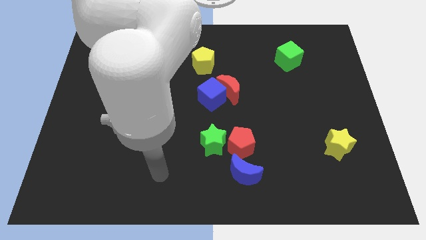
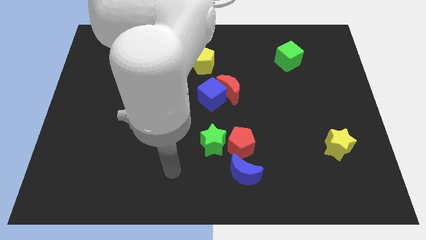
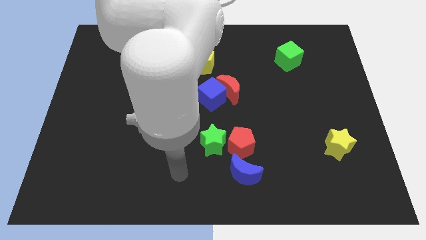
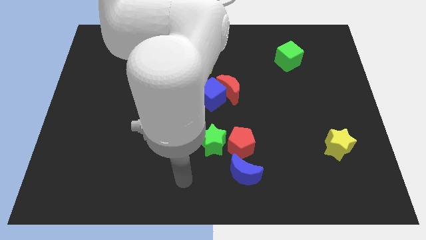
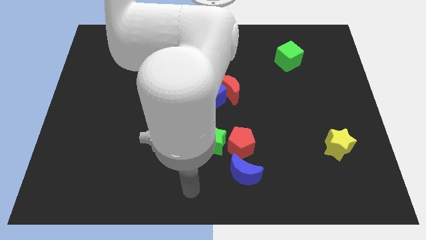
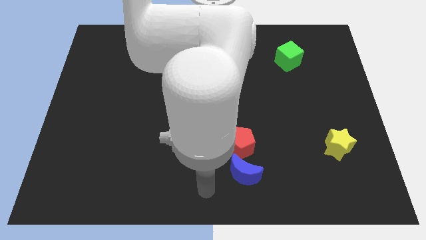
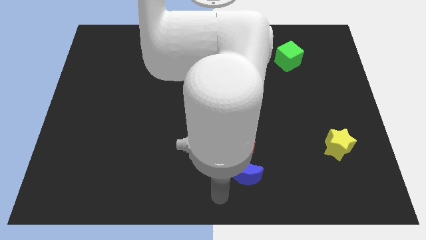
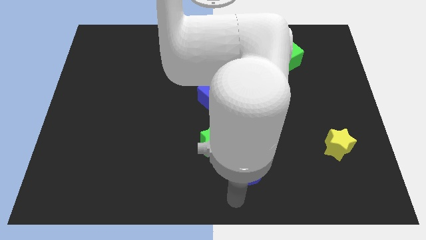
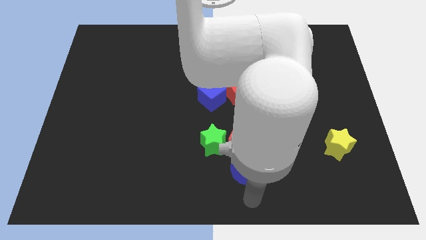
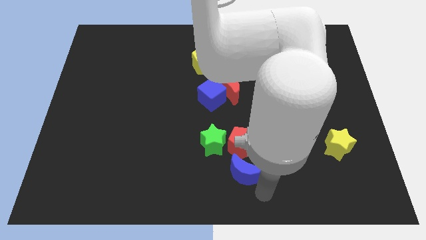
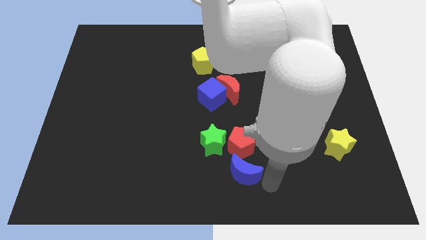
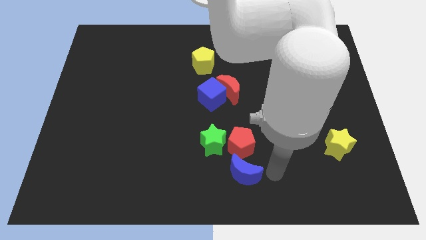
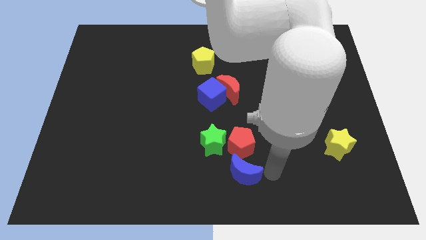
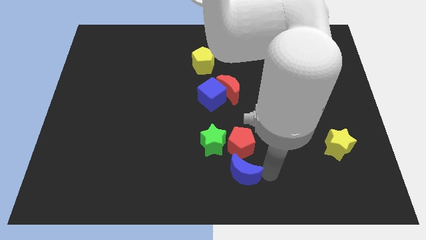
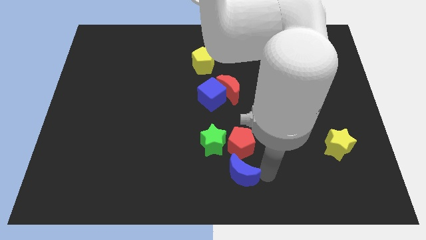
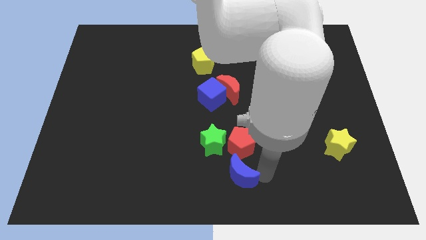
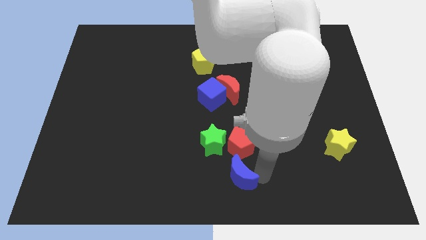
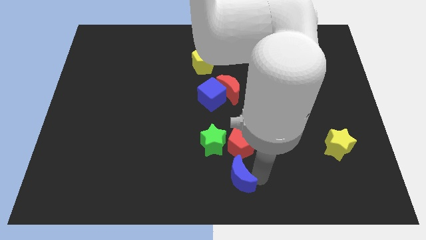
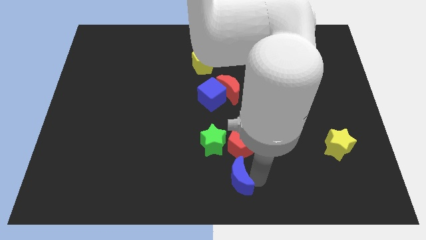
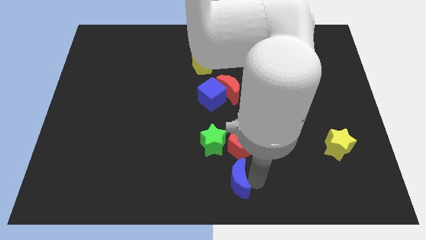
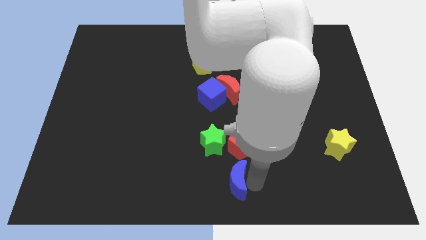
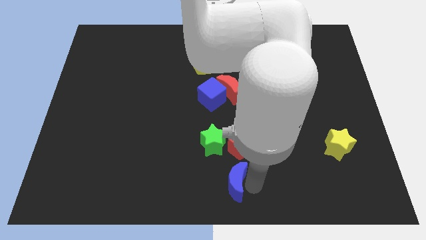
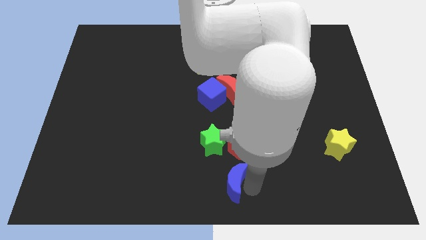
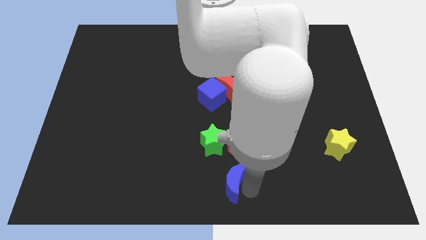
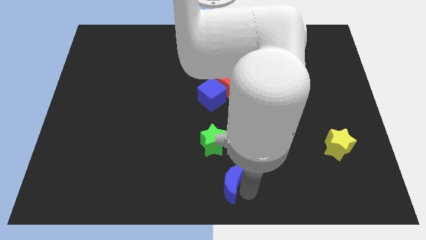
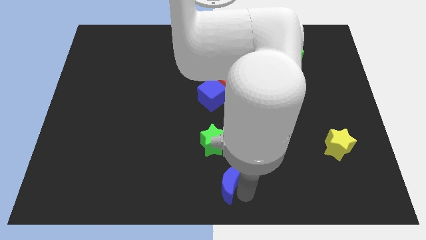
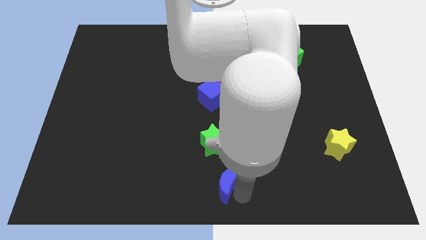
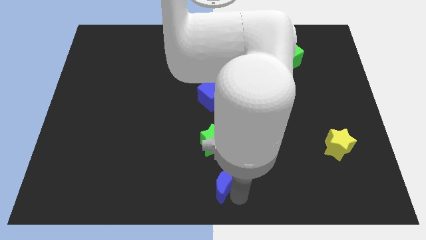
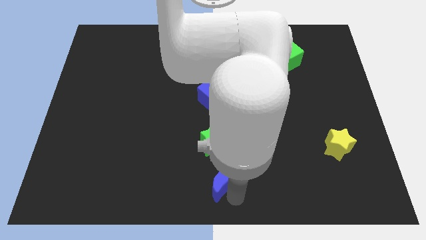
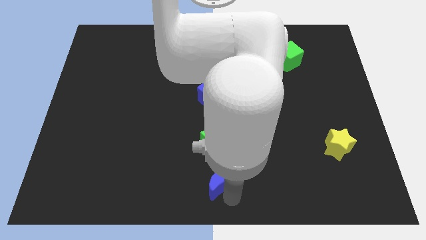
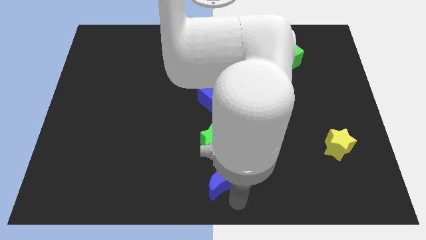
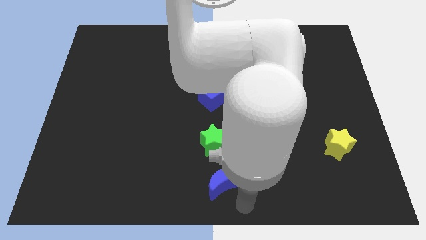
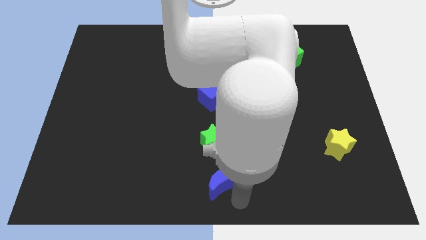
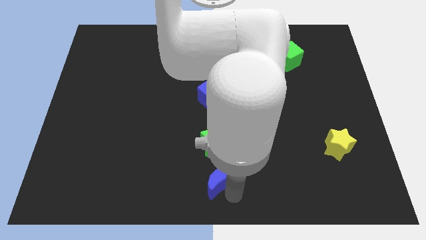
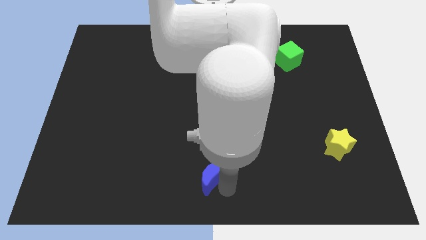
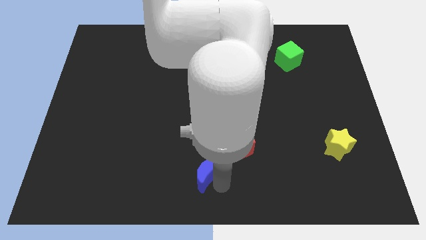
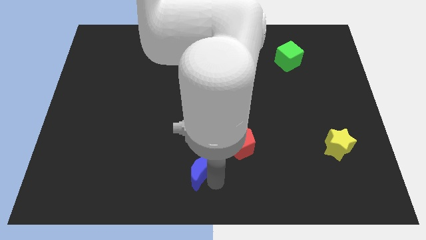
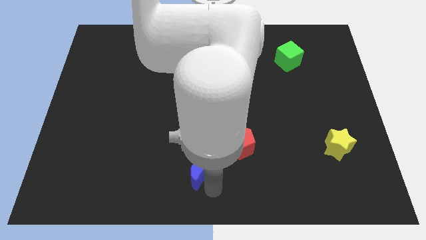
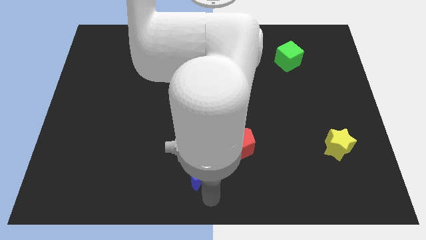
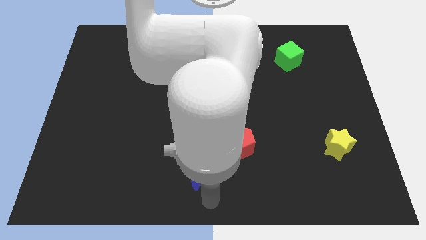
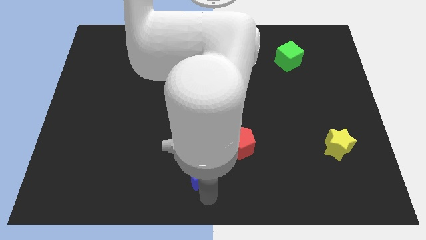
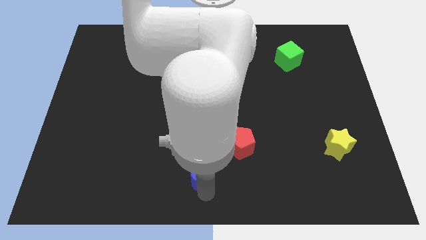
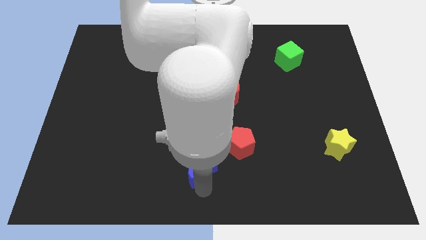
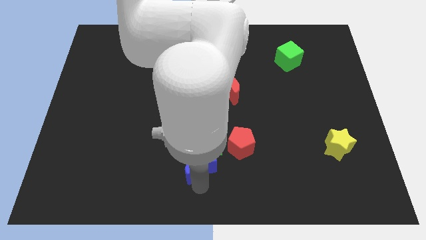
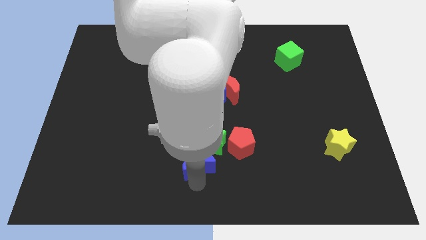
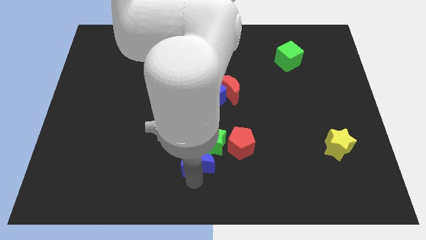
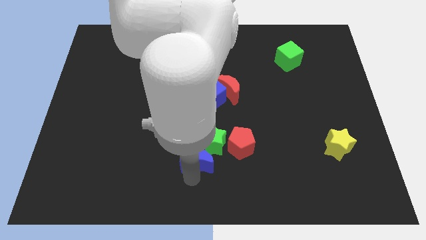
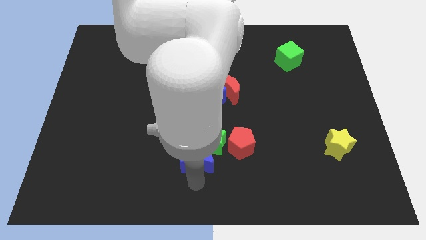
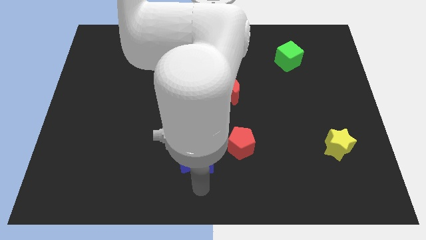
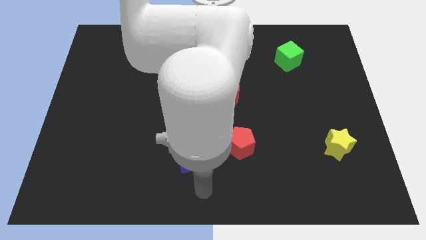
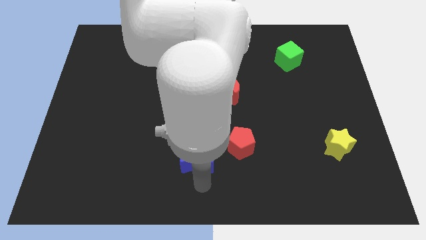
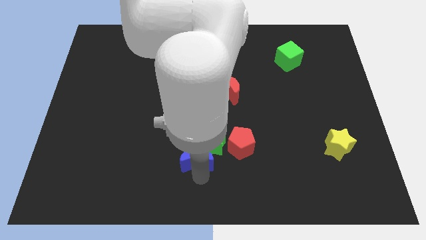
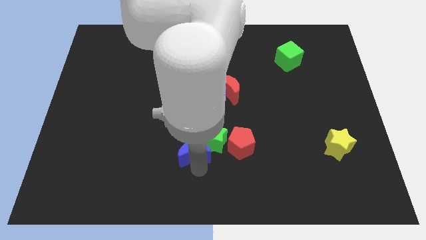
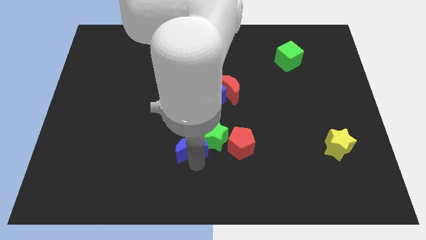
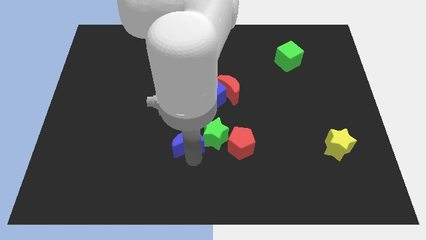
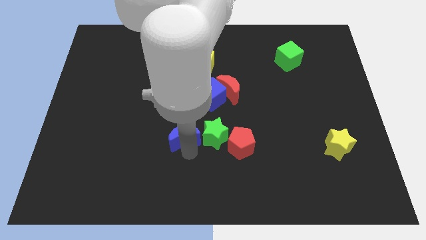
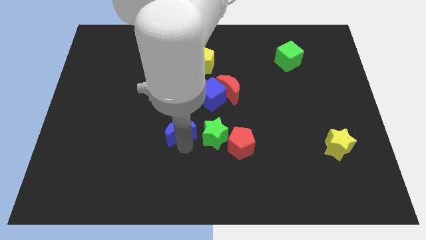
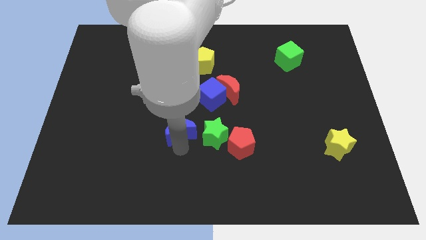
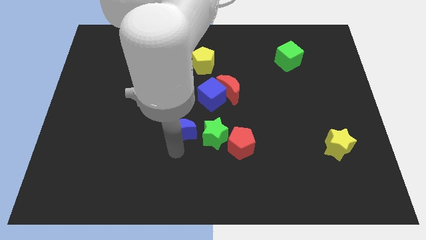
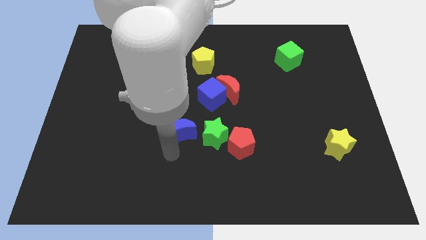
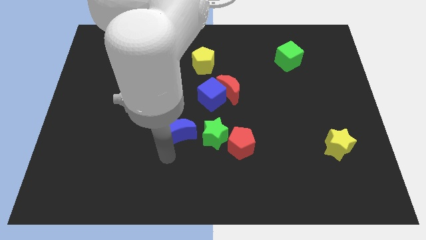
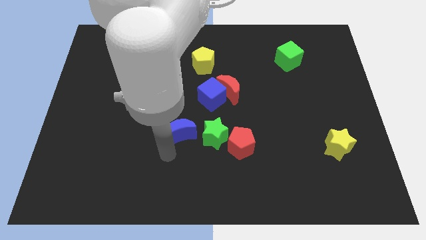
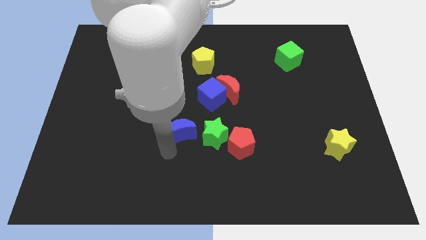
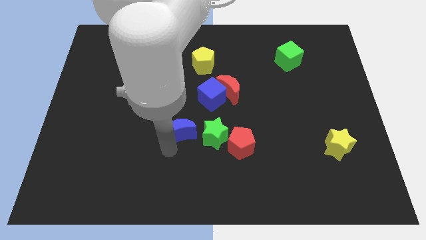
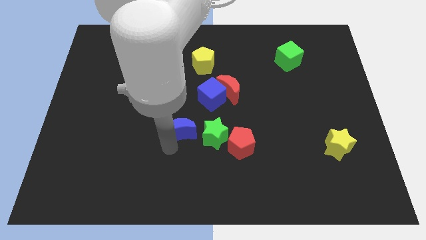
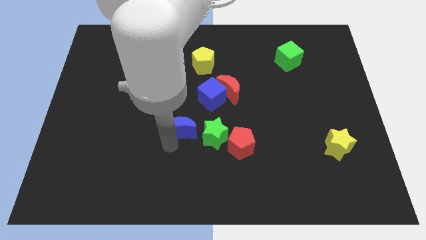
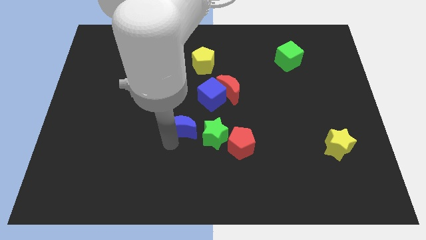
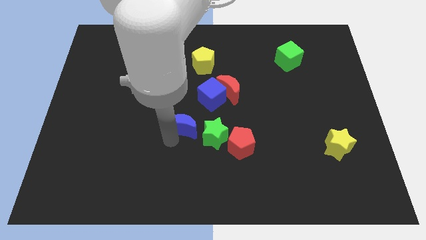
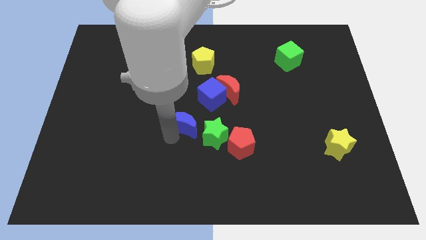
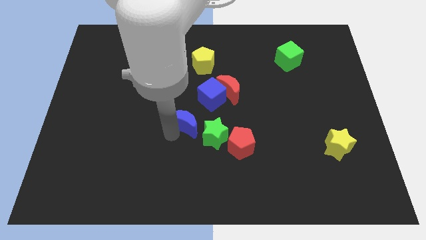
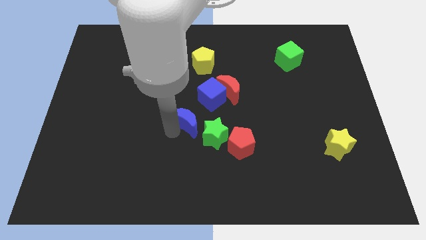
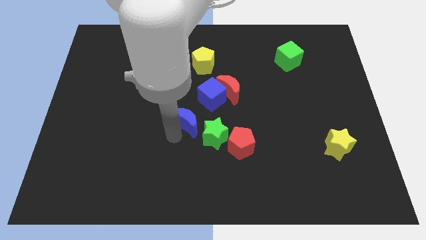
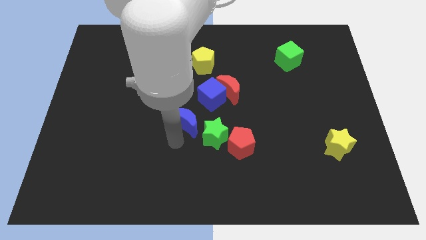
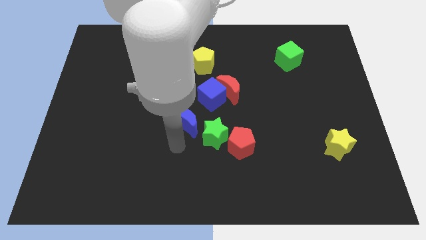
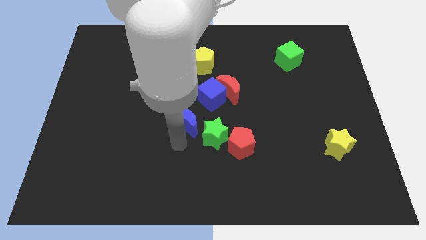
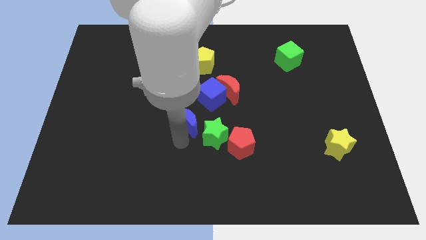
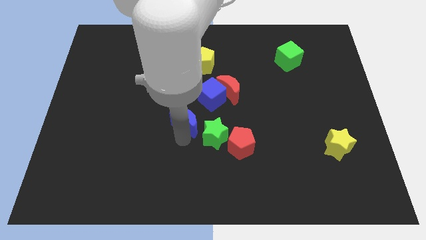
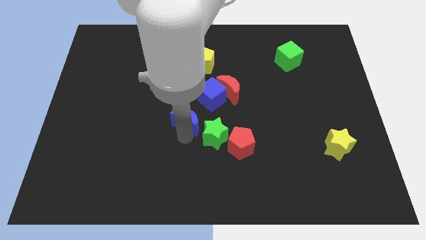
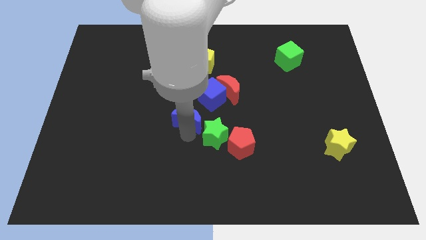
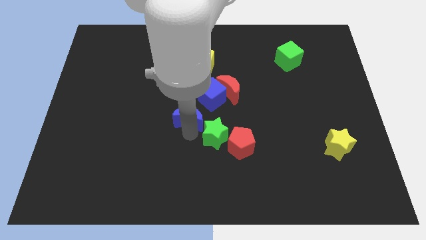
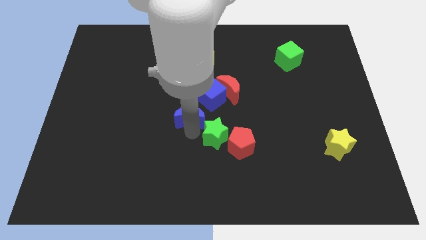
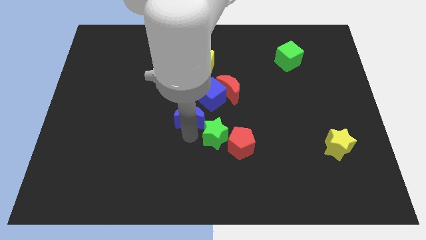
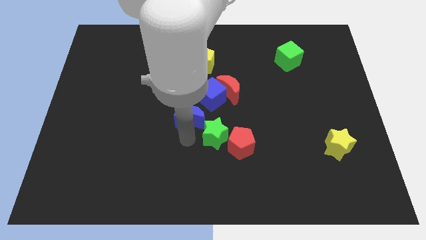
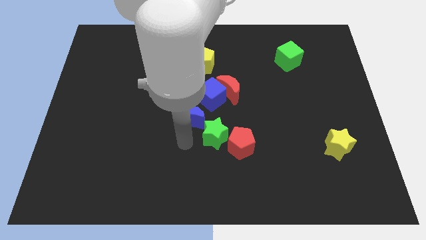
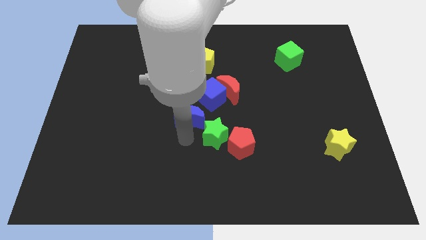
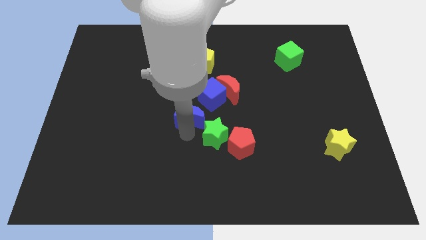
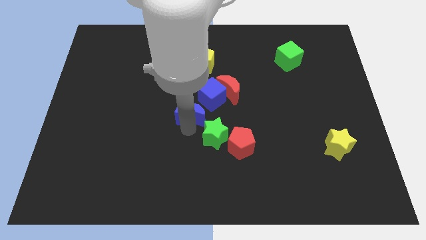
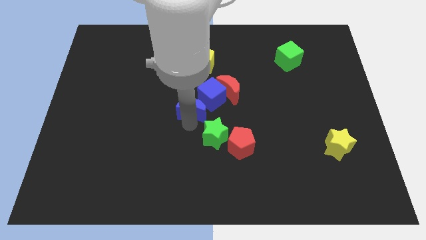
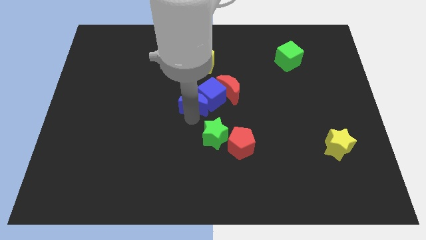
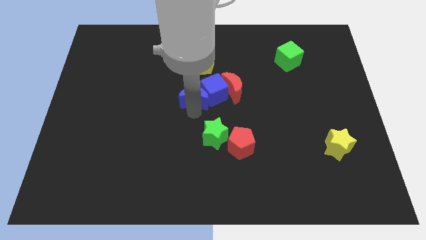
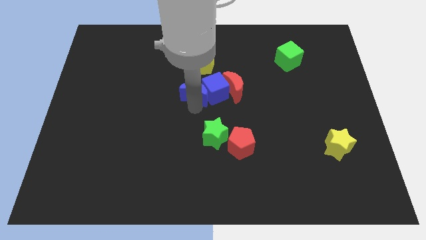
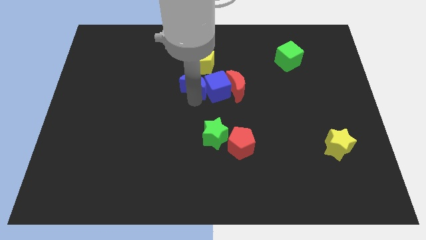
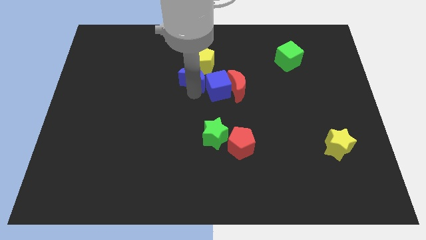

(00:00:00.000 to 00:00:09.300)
push the blue moon to the yellow pentagon
